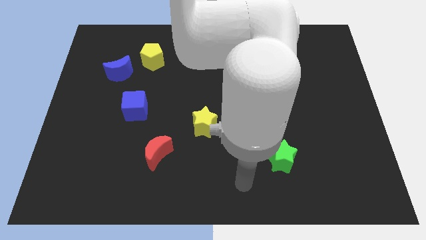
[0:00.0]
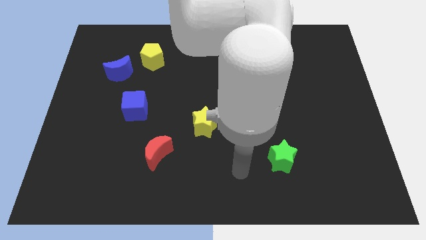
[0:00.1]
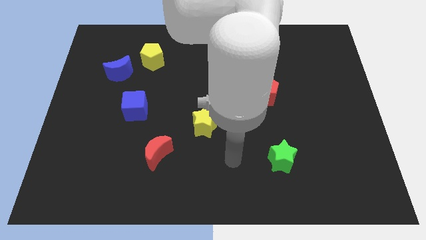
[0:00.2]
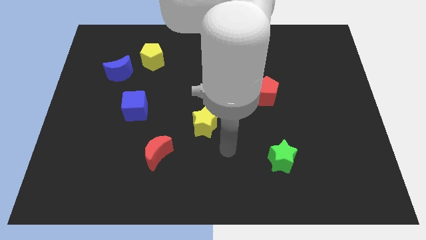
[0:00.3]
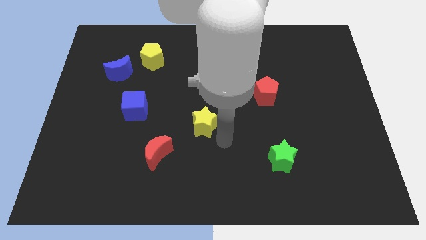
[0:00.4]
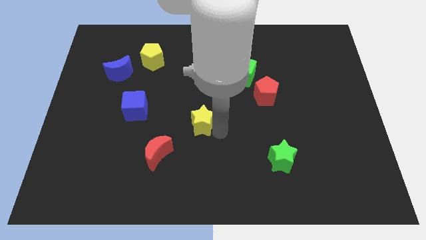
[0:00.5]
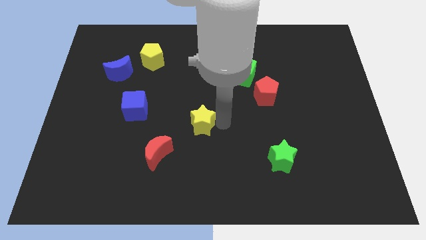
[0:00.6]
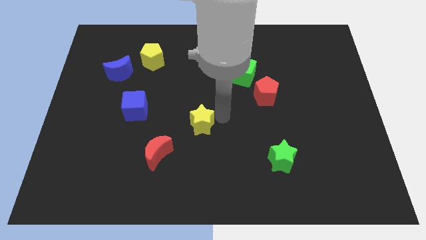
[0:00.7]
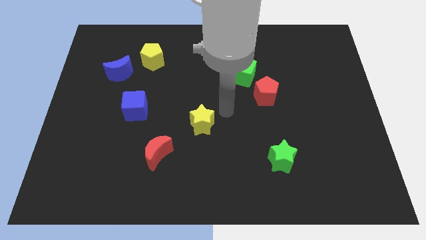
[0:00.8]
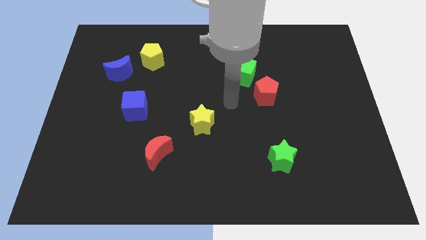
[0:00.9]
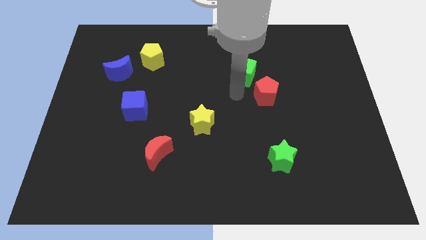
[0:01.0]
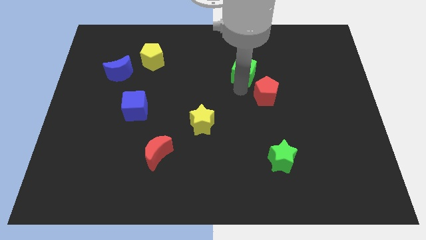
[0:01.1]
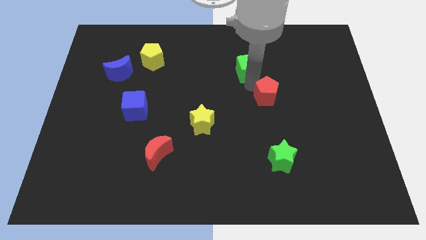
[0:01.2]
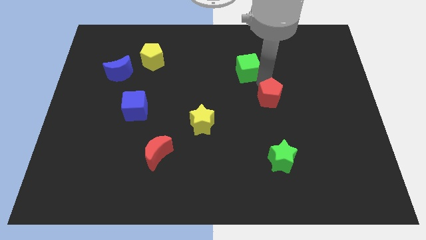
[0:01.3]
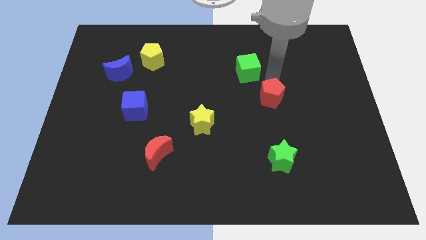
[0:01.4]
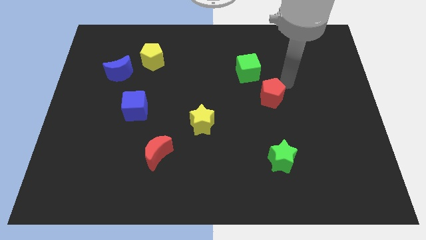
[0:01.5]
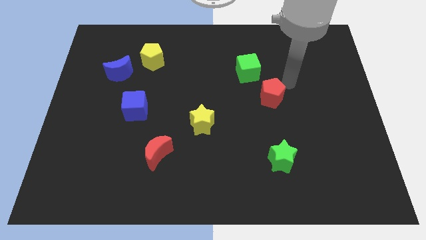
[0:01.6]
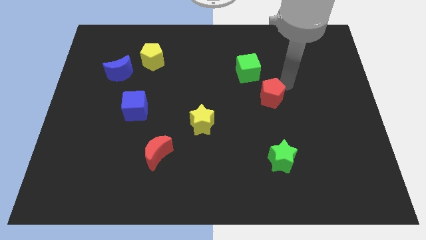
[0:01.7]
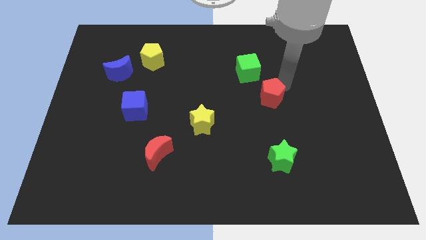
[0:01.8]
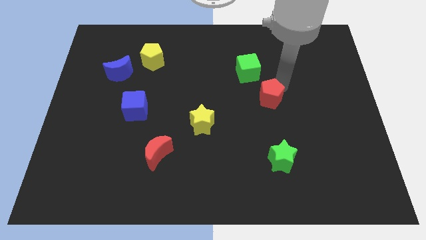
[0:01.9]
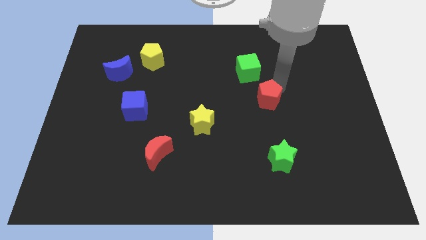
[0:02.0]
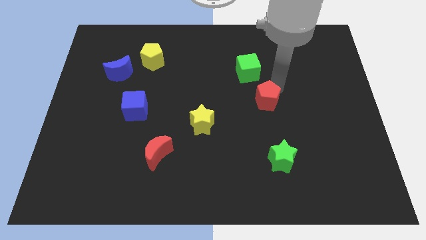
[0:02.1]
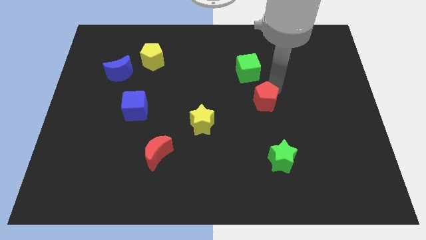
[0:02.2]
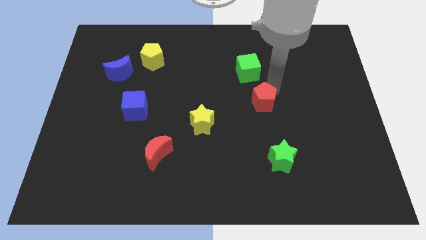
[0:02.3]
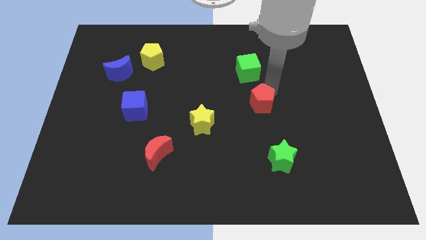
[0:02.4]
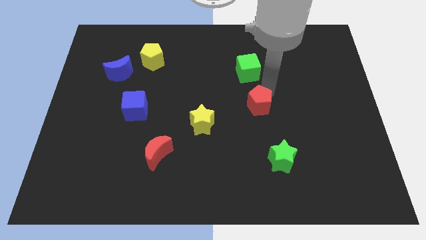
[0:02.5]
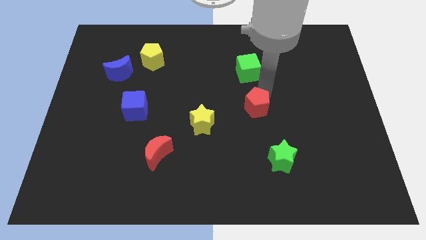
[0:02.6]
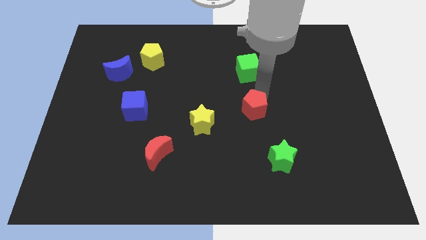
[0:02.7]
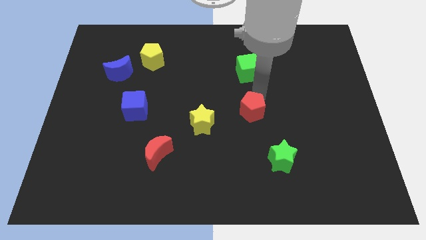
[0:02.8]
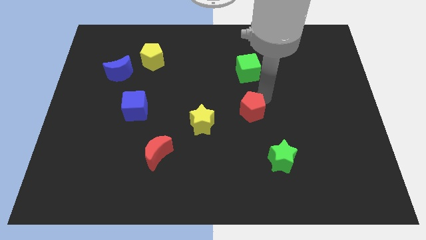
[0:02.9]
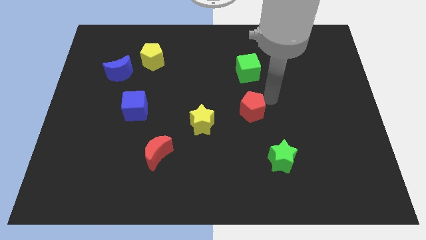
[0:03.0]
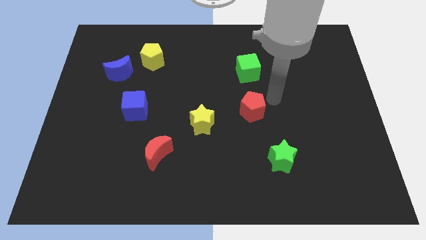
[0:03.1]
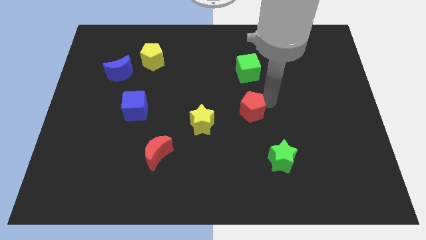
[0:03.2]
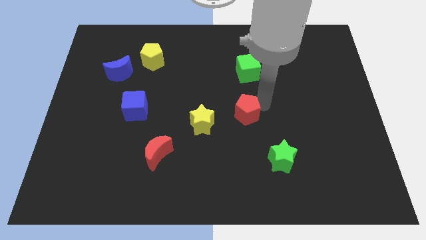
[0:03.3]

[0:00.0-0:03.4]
push the red pentagon somewhat downwards and left diagonally

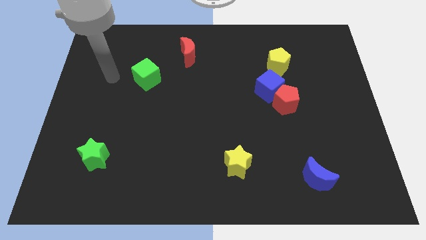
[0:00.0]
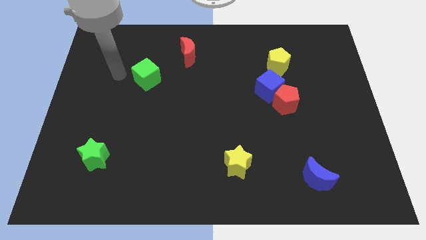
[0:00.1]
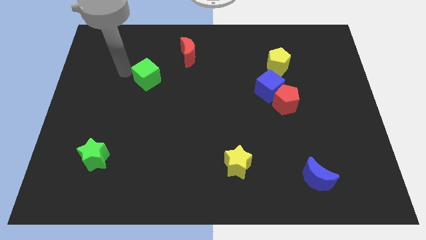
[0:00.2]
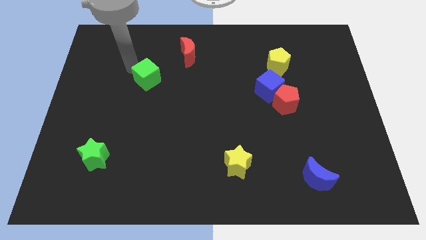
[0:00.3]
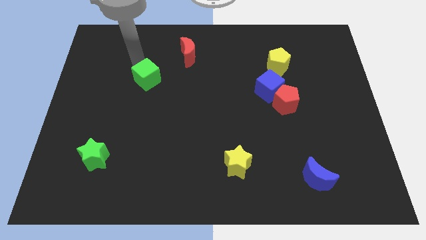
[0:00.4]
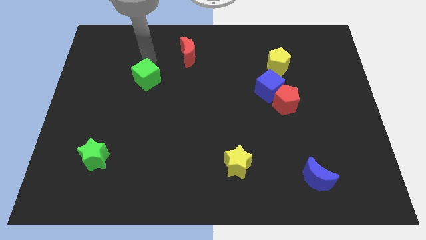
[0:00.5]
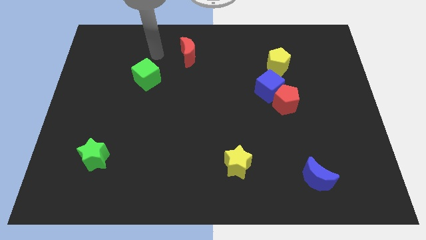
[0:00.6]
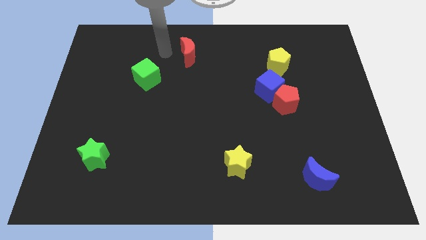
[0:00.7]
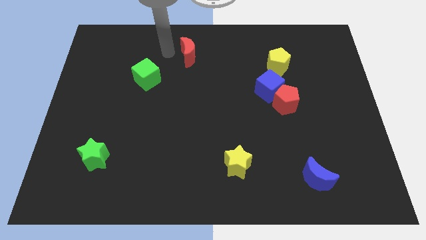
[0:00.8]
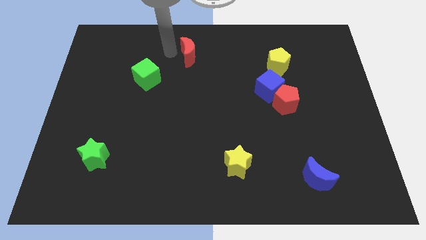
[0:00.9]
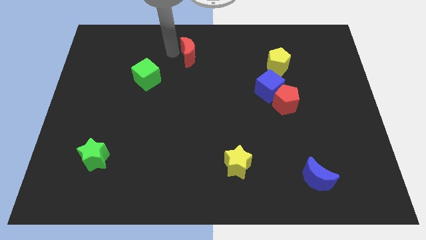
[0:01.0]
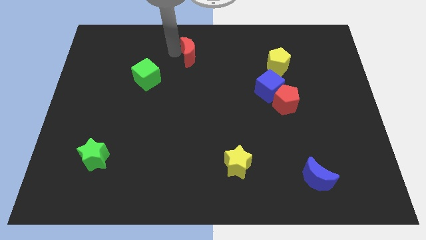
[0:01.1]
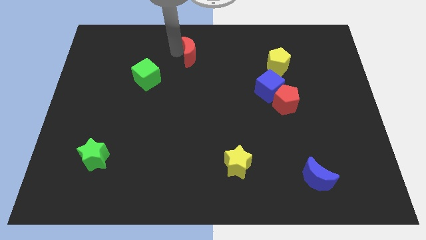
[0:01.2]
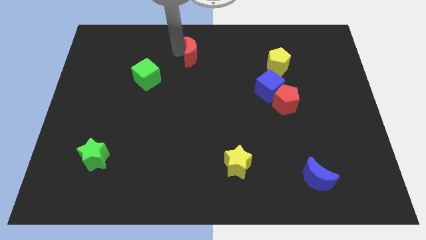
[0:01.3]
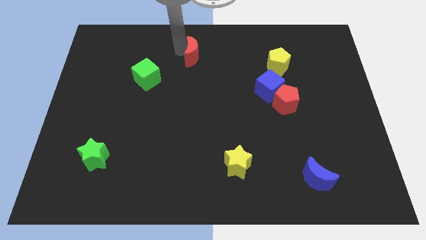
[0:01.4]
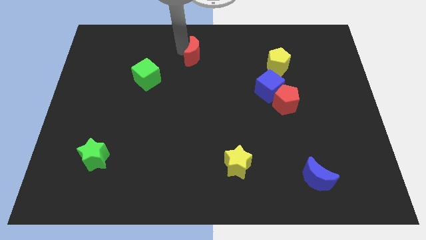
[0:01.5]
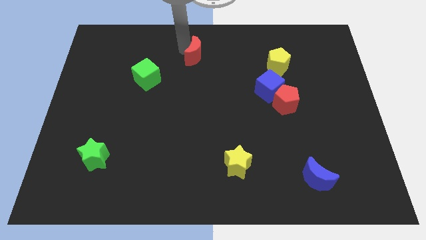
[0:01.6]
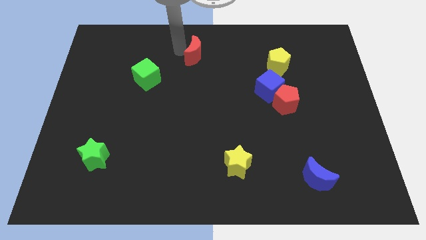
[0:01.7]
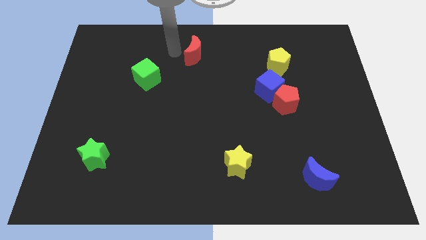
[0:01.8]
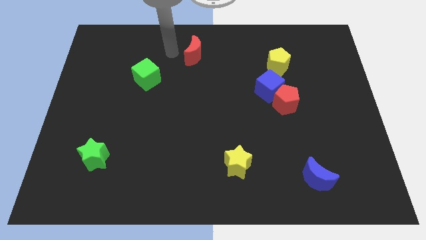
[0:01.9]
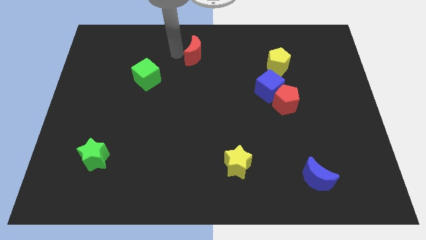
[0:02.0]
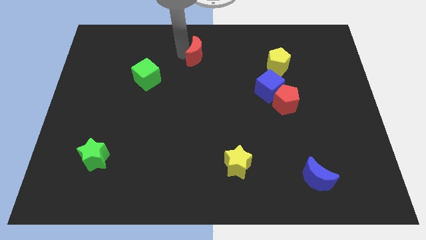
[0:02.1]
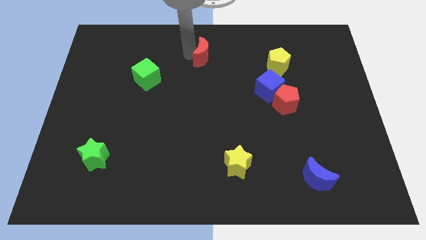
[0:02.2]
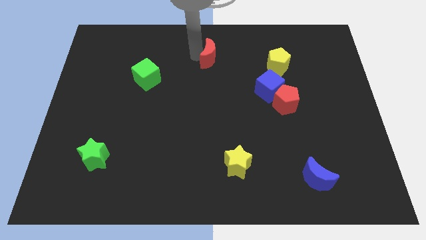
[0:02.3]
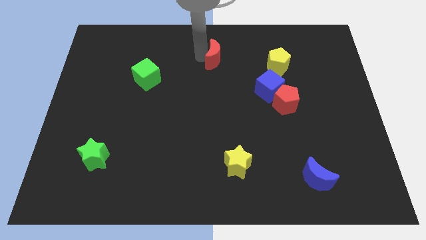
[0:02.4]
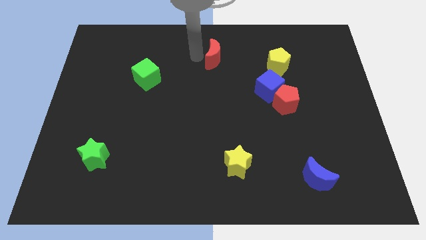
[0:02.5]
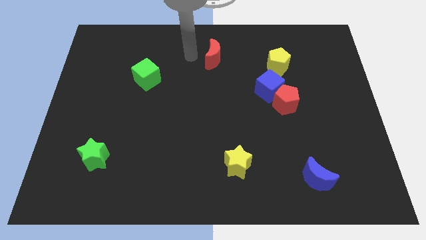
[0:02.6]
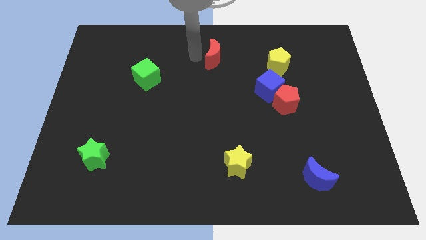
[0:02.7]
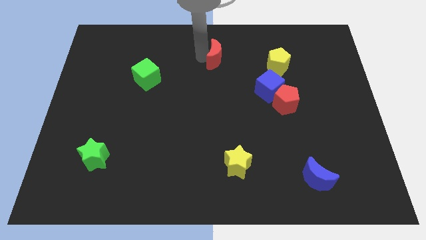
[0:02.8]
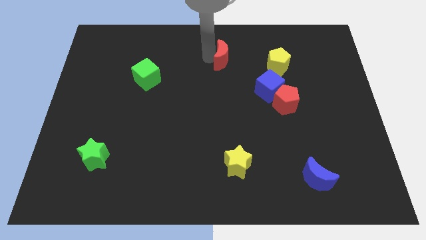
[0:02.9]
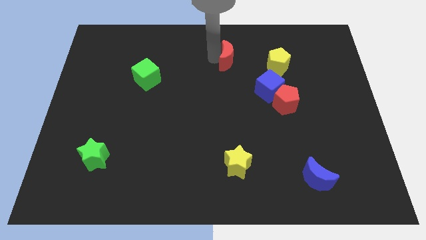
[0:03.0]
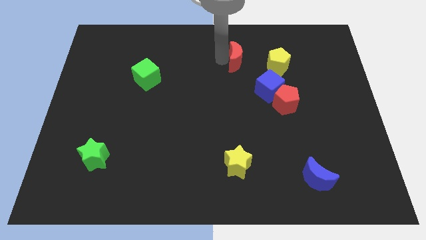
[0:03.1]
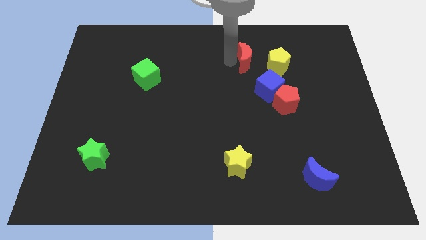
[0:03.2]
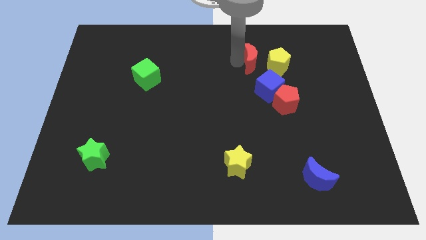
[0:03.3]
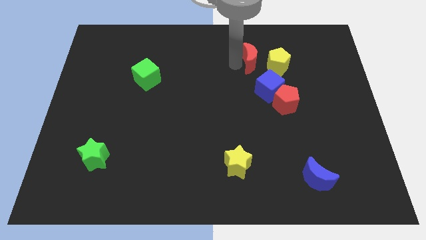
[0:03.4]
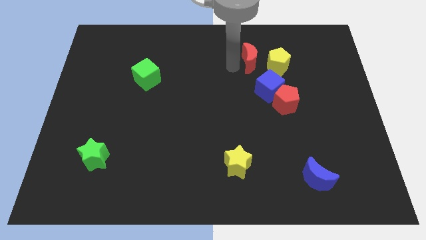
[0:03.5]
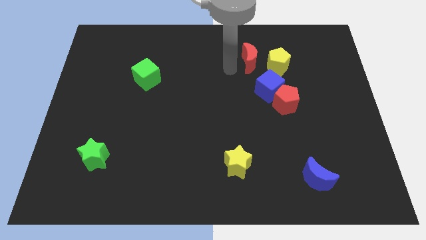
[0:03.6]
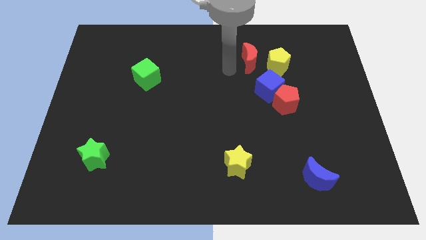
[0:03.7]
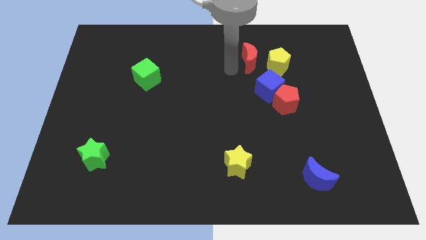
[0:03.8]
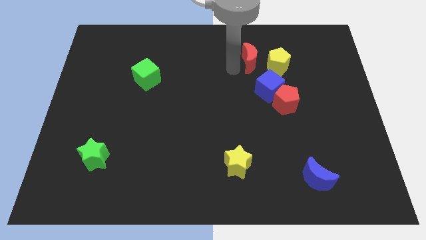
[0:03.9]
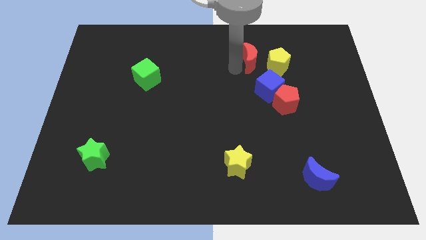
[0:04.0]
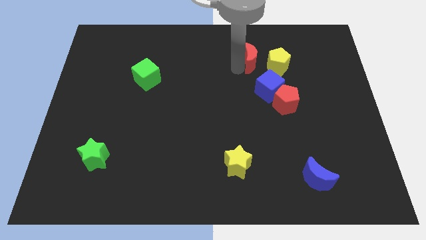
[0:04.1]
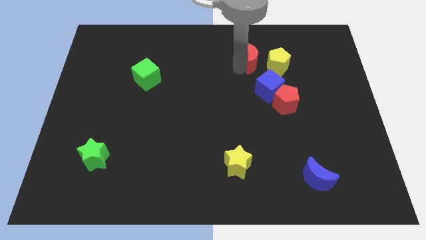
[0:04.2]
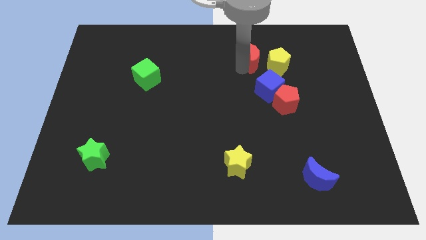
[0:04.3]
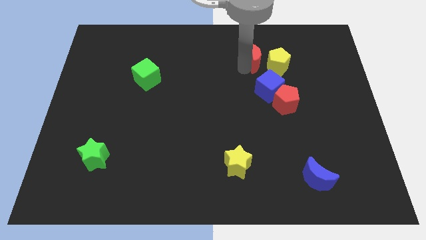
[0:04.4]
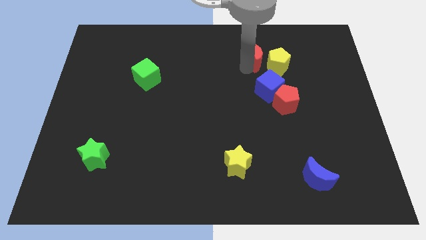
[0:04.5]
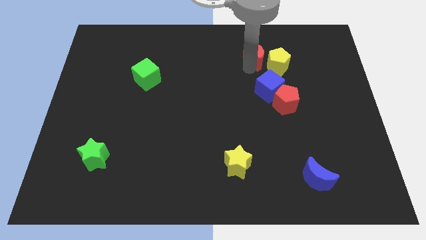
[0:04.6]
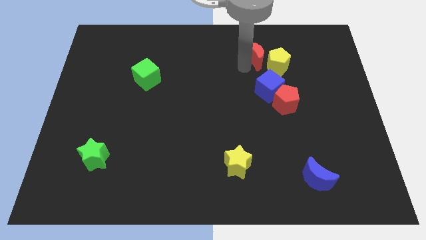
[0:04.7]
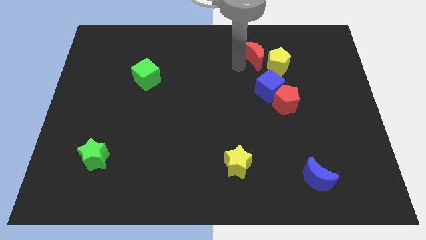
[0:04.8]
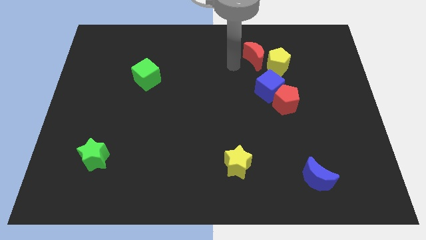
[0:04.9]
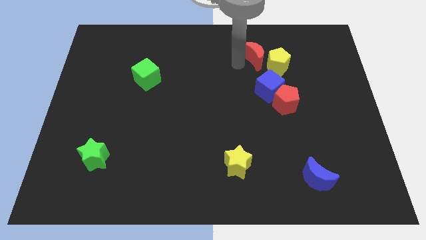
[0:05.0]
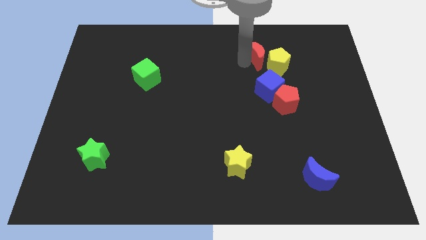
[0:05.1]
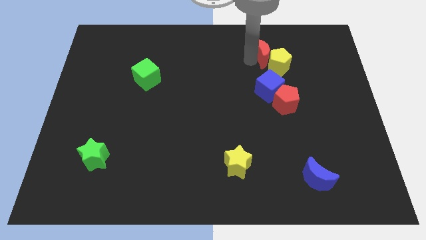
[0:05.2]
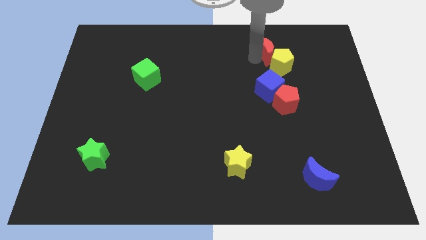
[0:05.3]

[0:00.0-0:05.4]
push the red moon to the right
